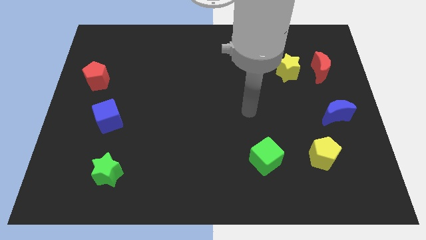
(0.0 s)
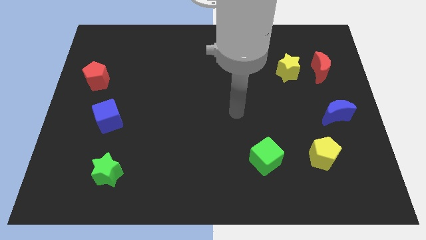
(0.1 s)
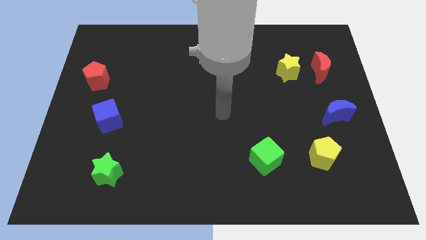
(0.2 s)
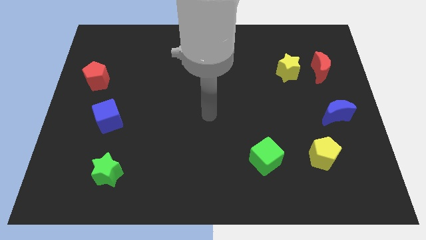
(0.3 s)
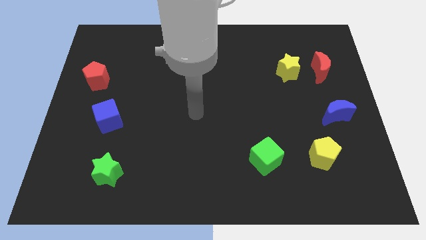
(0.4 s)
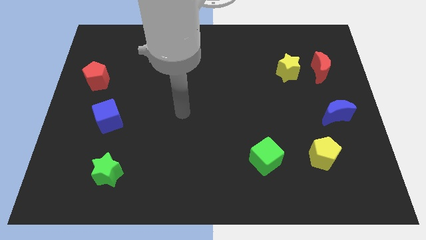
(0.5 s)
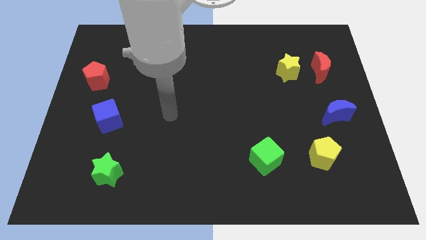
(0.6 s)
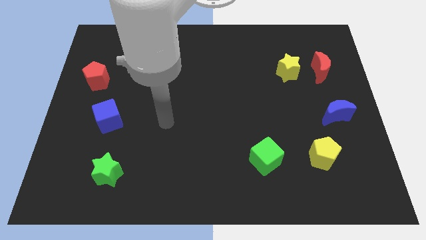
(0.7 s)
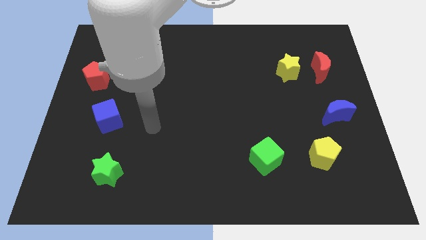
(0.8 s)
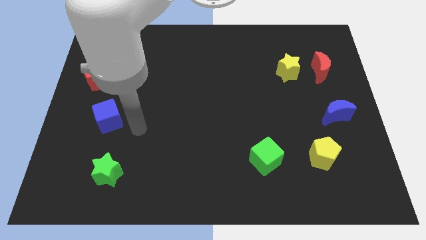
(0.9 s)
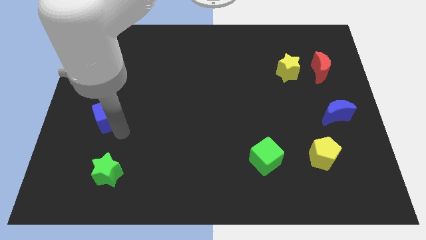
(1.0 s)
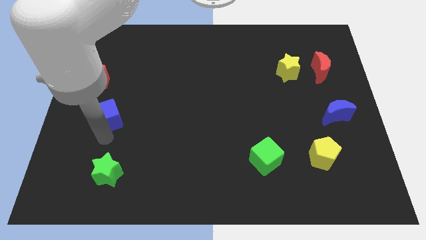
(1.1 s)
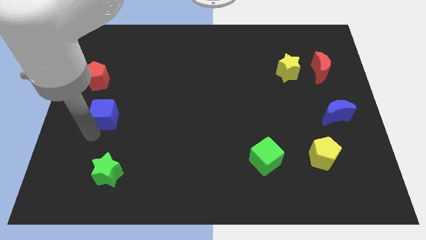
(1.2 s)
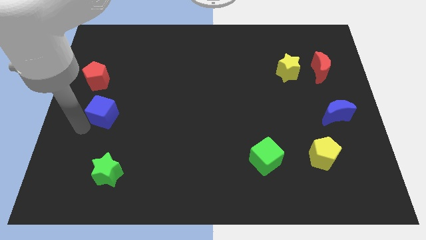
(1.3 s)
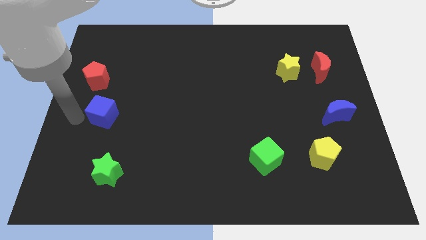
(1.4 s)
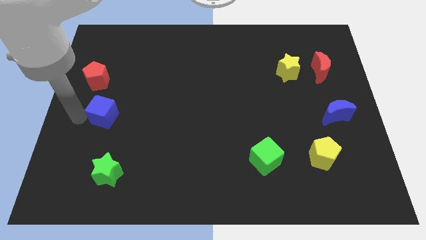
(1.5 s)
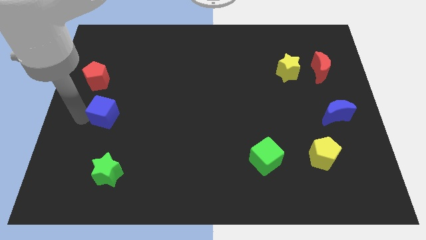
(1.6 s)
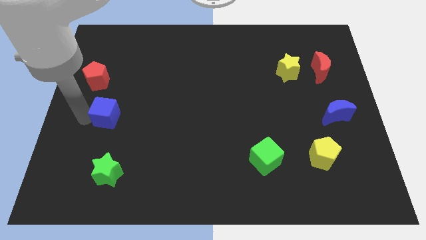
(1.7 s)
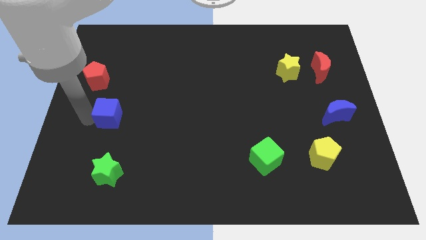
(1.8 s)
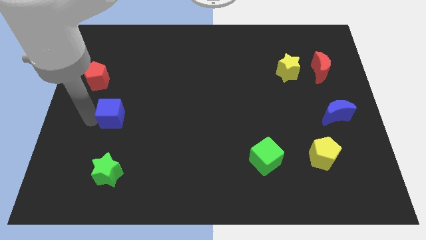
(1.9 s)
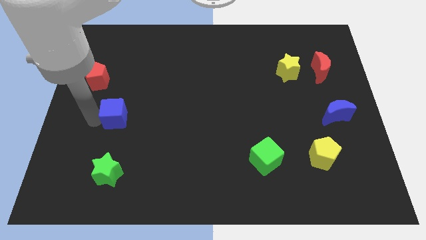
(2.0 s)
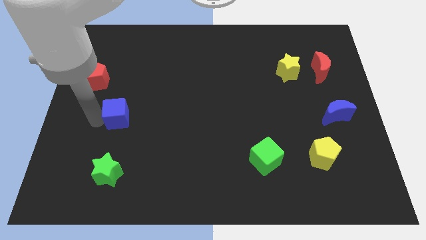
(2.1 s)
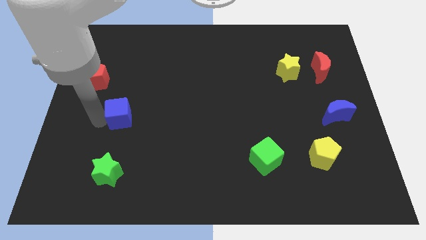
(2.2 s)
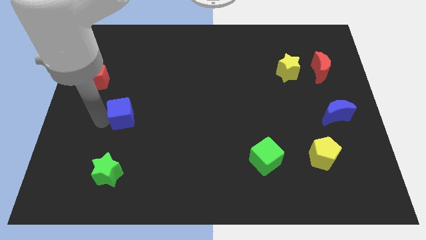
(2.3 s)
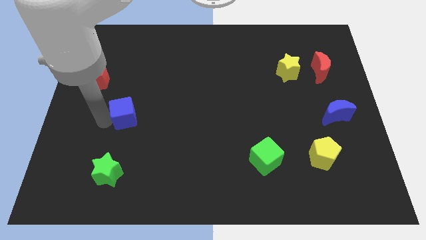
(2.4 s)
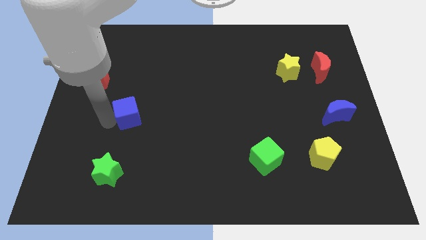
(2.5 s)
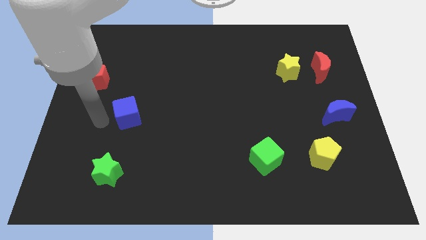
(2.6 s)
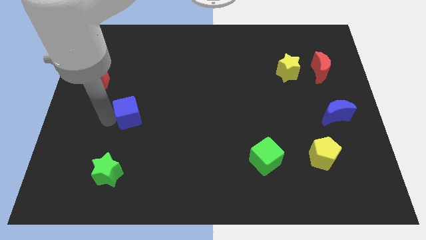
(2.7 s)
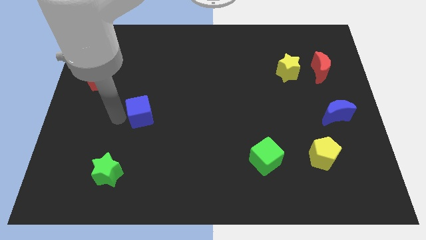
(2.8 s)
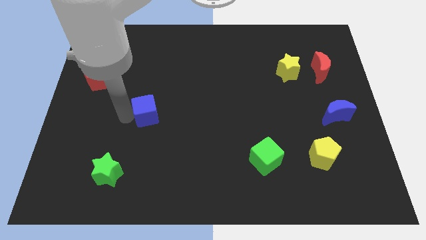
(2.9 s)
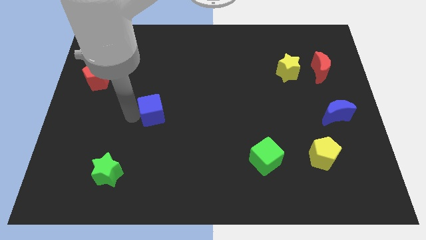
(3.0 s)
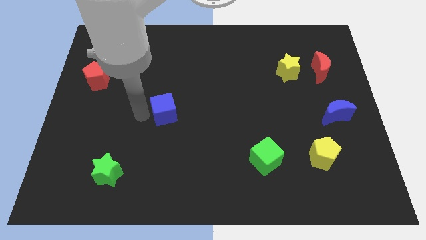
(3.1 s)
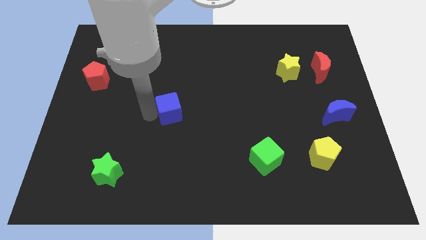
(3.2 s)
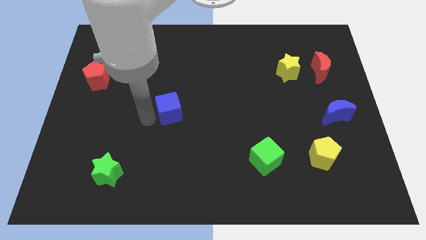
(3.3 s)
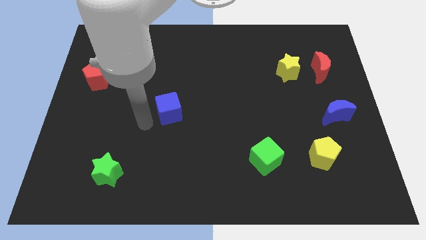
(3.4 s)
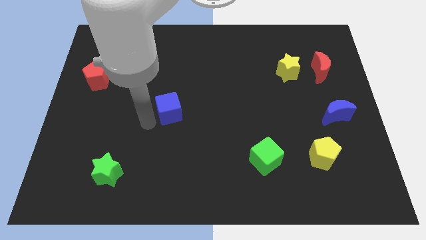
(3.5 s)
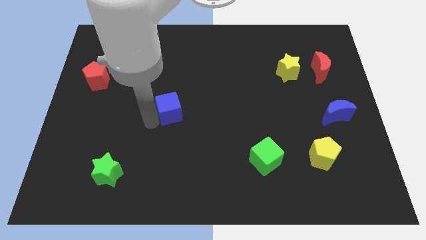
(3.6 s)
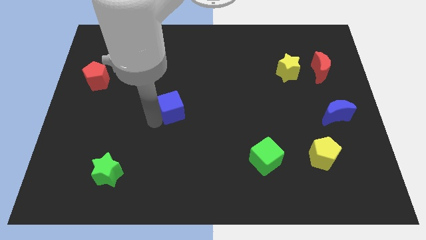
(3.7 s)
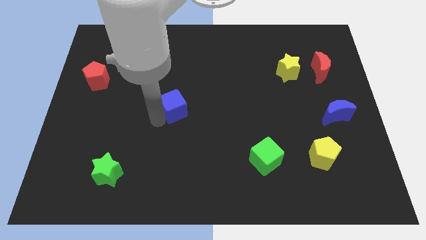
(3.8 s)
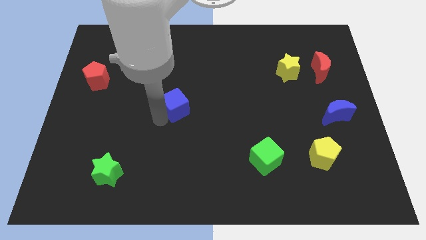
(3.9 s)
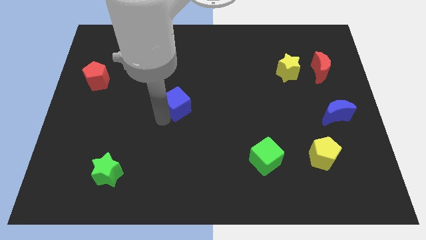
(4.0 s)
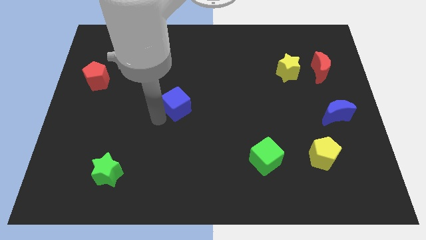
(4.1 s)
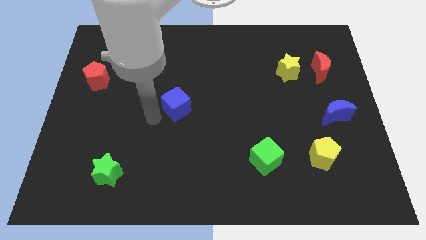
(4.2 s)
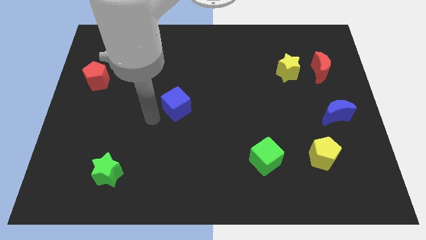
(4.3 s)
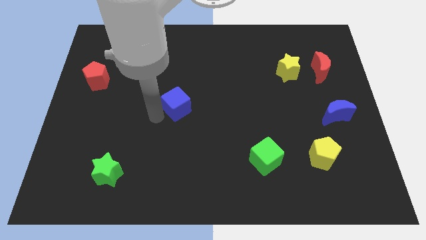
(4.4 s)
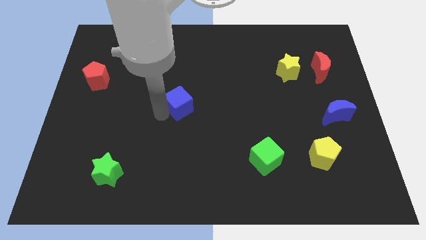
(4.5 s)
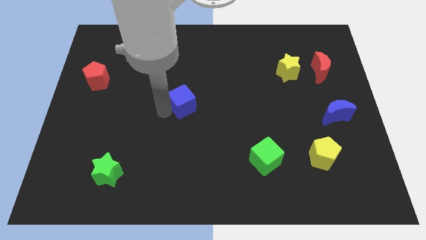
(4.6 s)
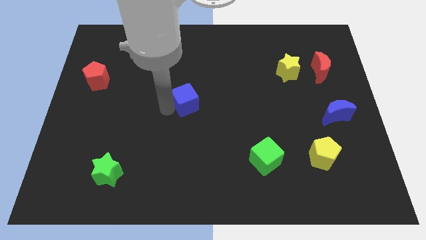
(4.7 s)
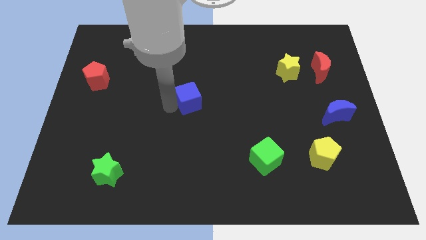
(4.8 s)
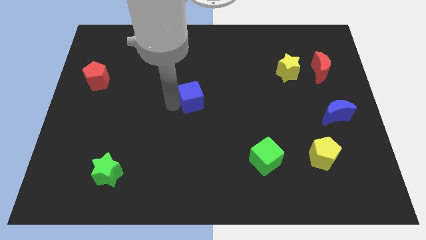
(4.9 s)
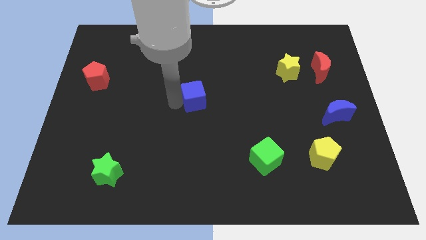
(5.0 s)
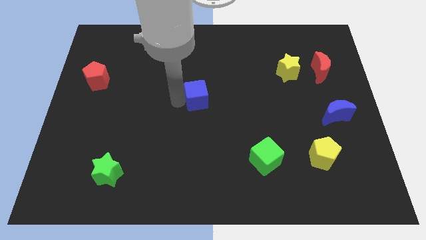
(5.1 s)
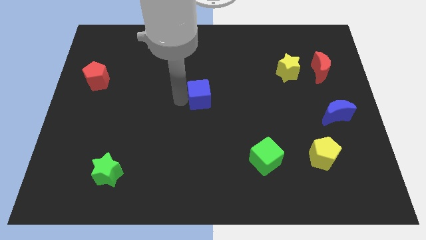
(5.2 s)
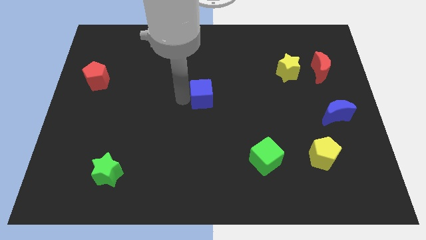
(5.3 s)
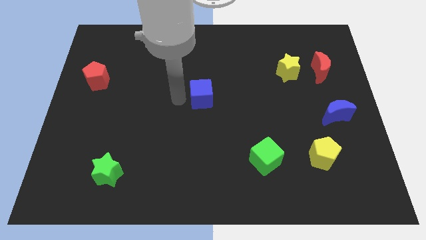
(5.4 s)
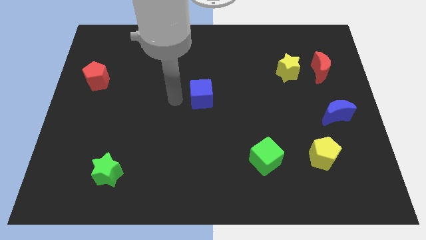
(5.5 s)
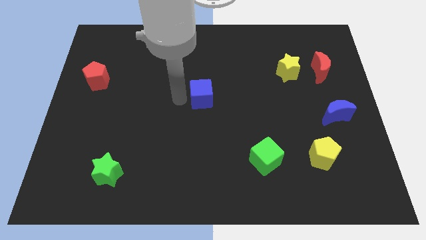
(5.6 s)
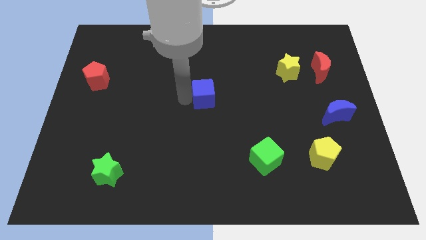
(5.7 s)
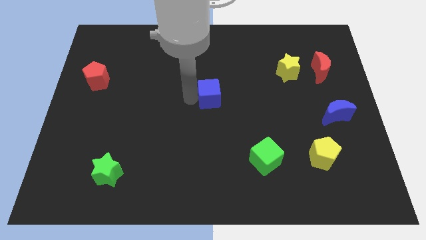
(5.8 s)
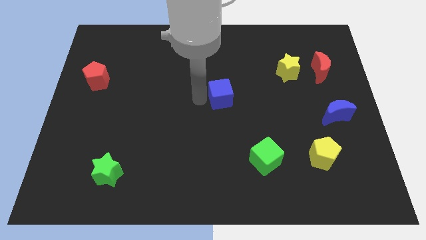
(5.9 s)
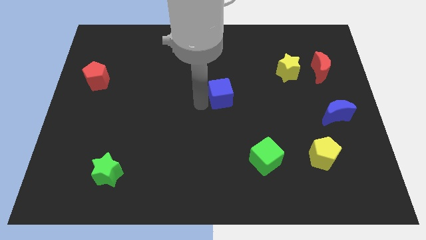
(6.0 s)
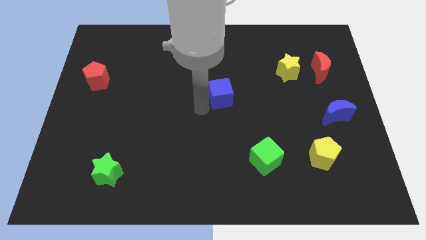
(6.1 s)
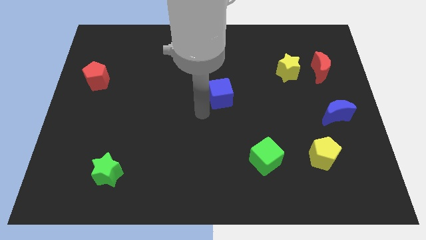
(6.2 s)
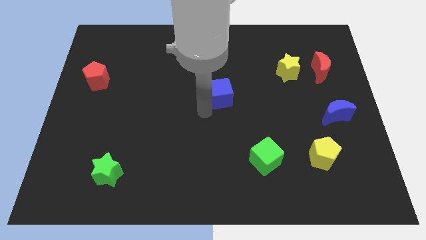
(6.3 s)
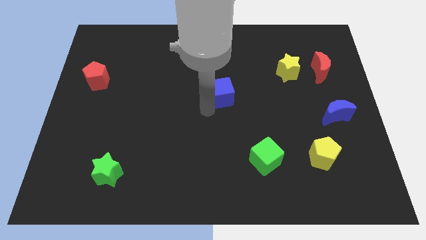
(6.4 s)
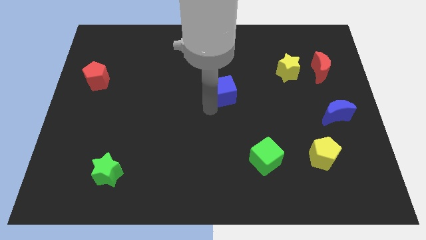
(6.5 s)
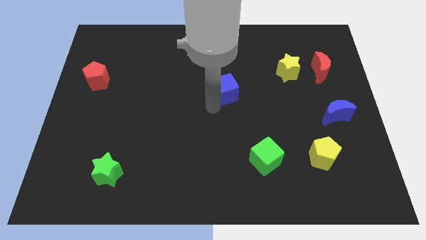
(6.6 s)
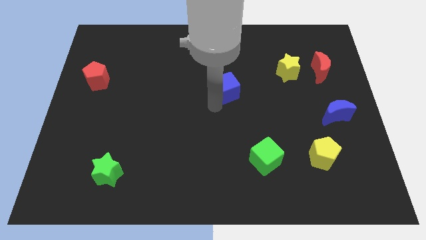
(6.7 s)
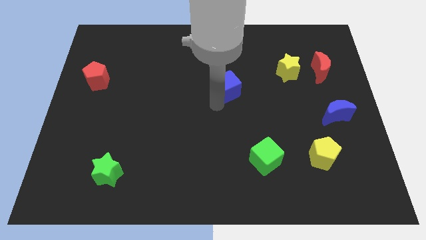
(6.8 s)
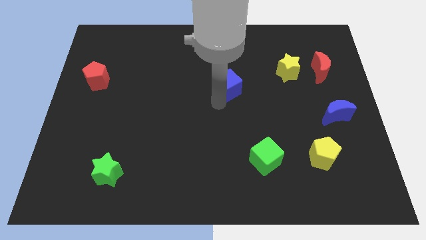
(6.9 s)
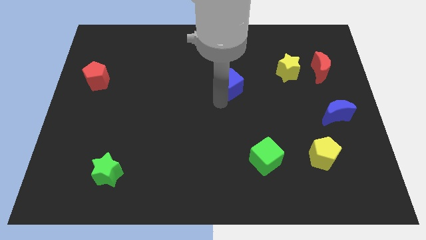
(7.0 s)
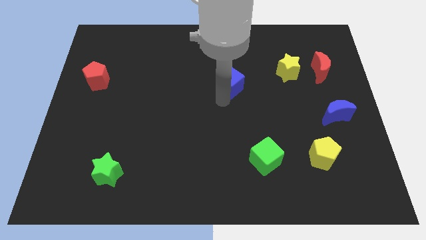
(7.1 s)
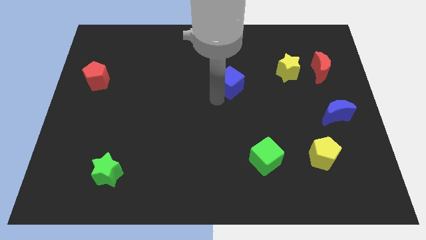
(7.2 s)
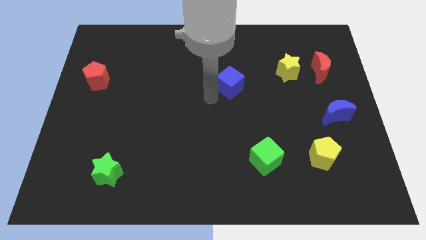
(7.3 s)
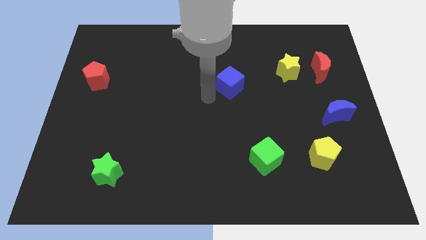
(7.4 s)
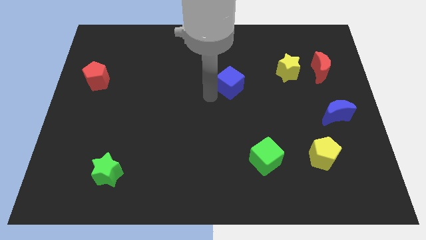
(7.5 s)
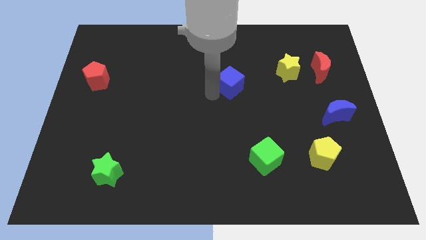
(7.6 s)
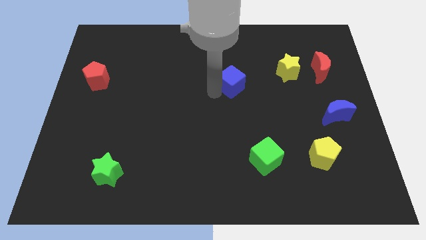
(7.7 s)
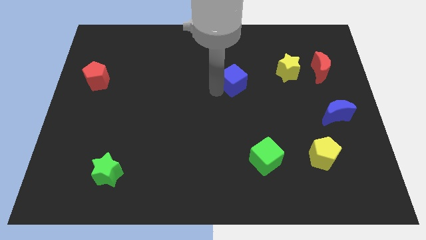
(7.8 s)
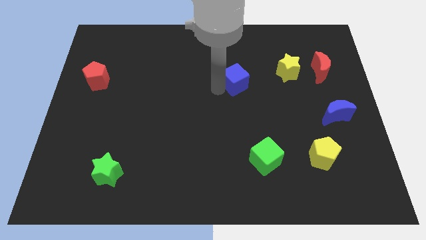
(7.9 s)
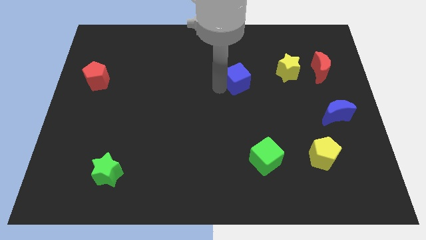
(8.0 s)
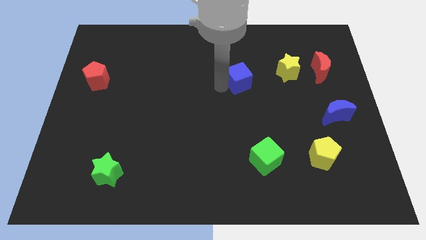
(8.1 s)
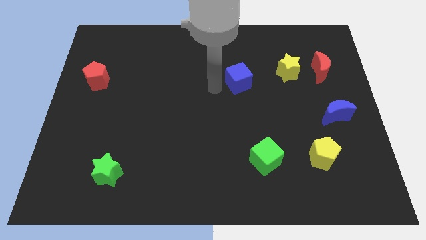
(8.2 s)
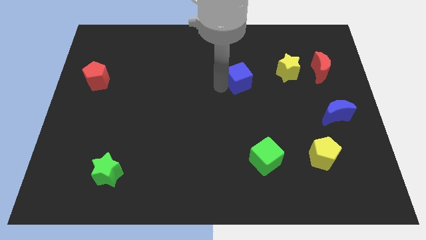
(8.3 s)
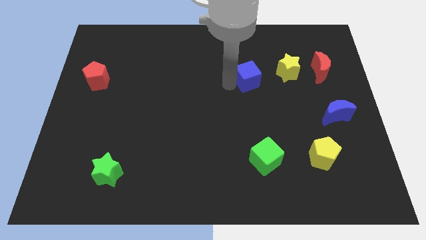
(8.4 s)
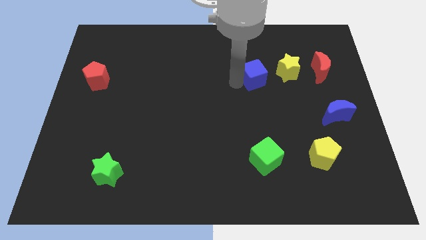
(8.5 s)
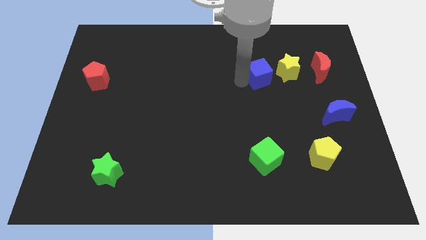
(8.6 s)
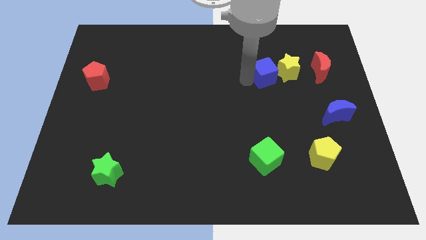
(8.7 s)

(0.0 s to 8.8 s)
put the blue cube towards the yellow star
